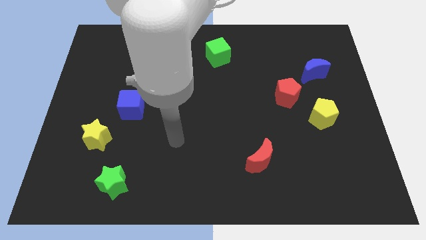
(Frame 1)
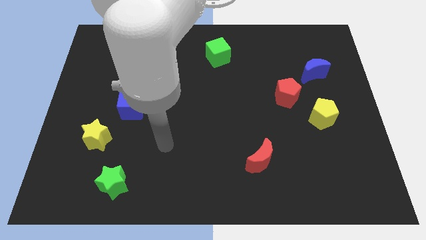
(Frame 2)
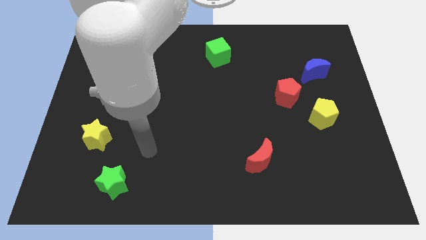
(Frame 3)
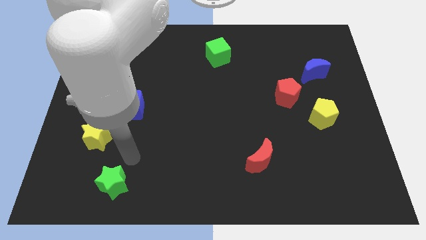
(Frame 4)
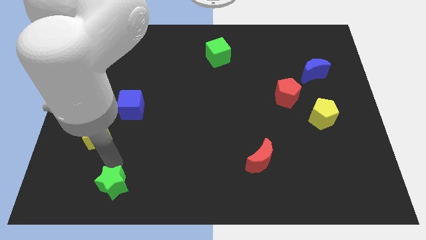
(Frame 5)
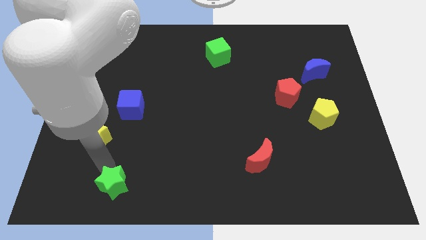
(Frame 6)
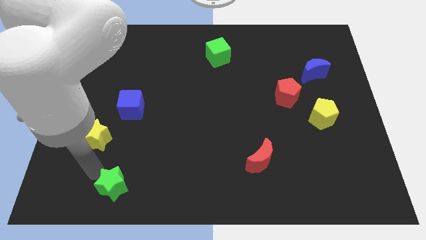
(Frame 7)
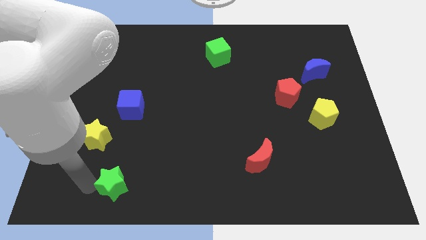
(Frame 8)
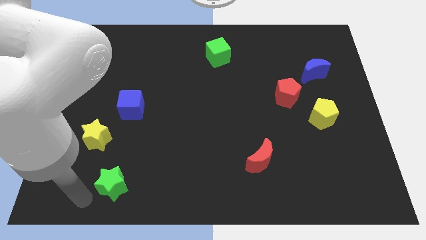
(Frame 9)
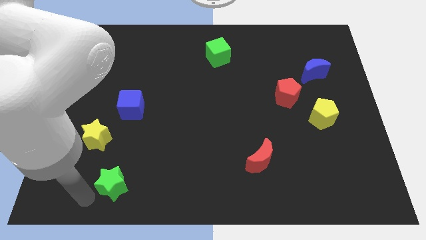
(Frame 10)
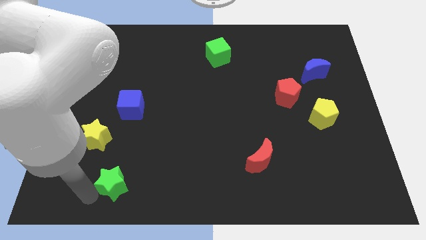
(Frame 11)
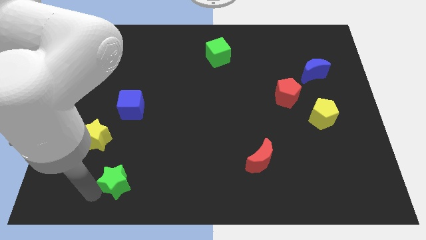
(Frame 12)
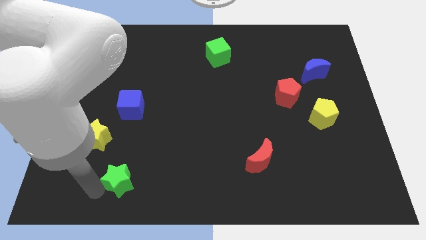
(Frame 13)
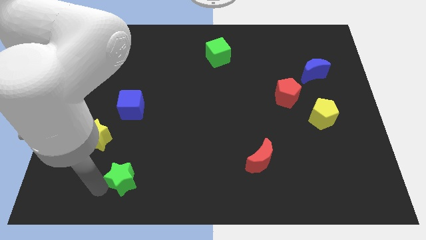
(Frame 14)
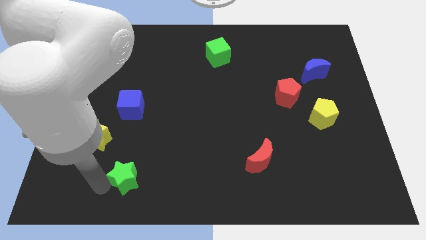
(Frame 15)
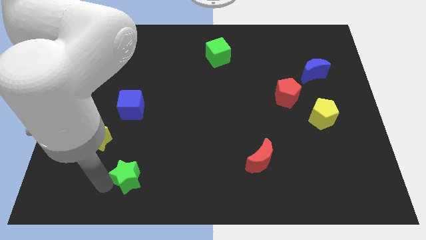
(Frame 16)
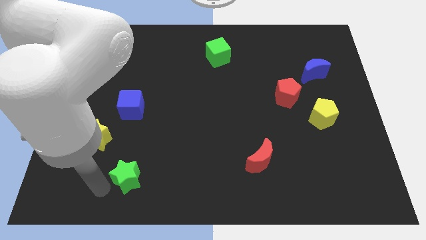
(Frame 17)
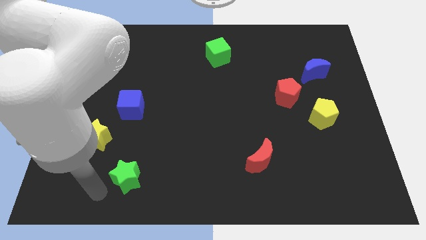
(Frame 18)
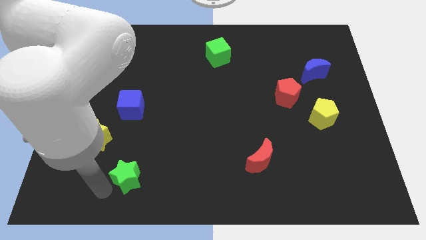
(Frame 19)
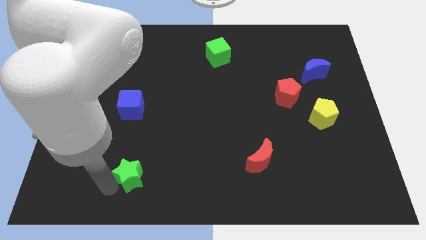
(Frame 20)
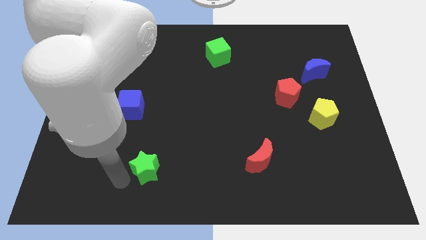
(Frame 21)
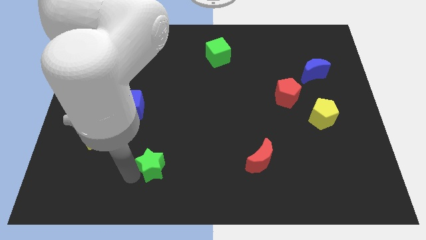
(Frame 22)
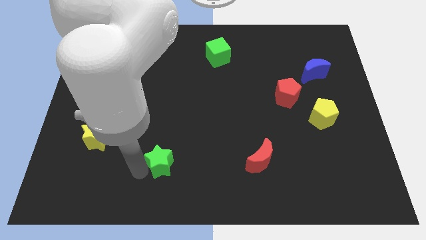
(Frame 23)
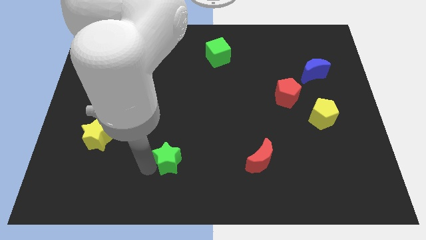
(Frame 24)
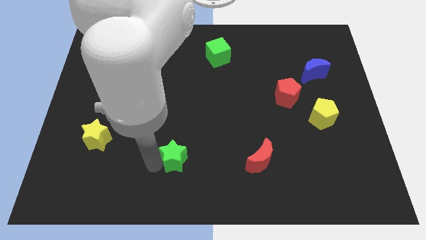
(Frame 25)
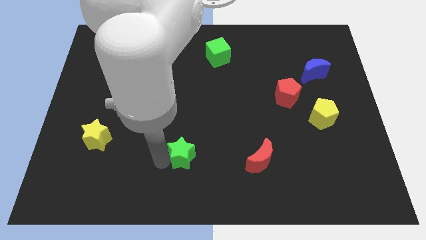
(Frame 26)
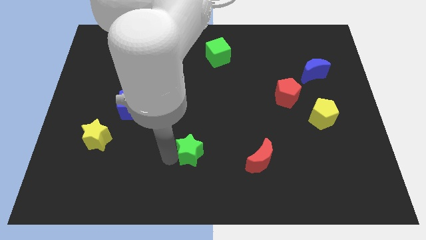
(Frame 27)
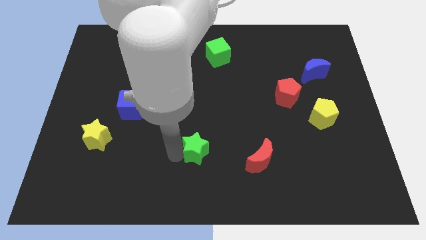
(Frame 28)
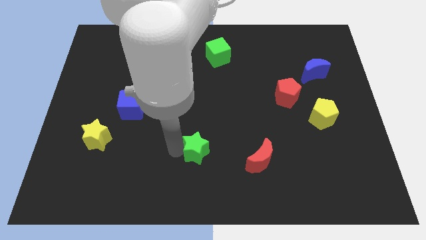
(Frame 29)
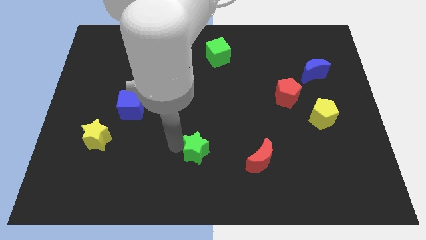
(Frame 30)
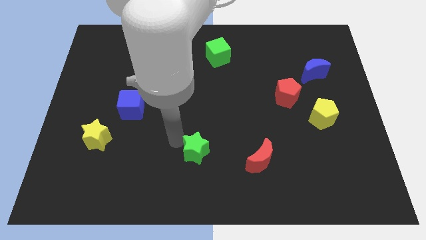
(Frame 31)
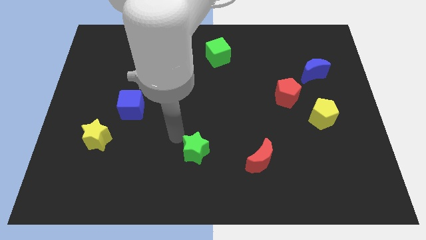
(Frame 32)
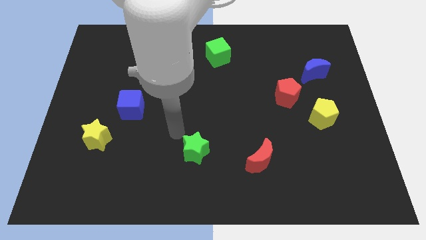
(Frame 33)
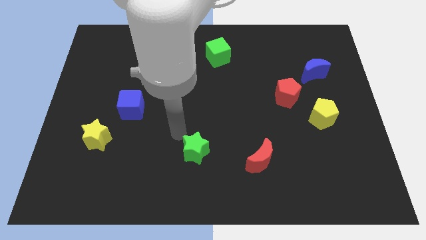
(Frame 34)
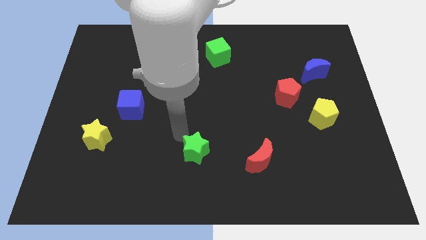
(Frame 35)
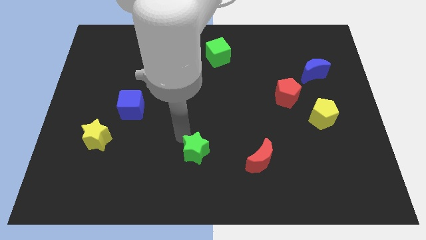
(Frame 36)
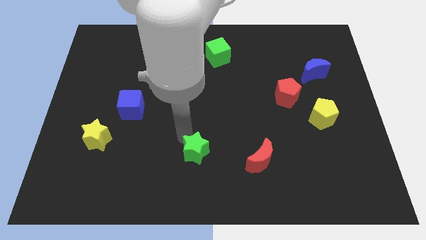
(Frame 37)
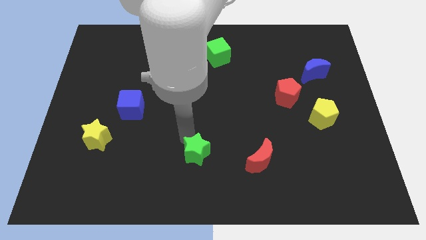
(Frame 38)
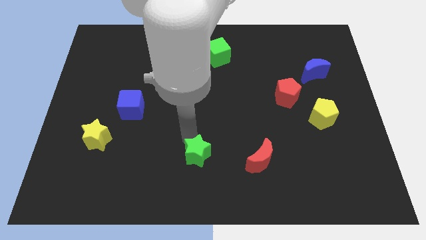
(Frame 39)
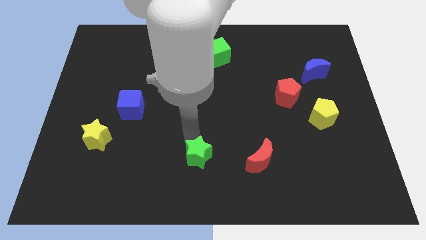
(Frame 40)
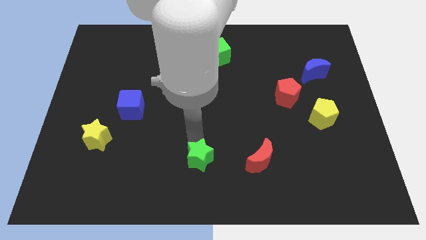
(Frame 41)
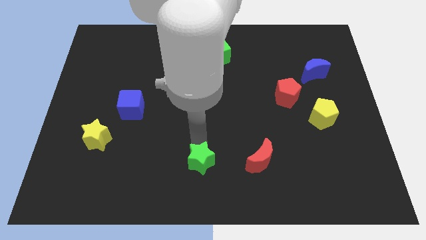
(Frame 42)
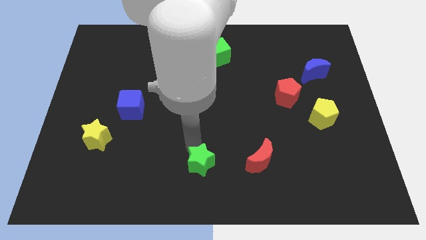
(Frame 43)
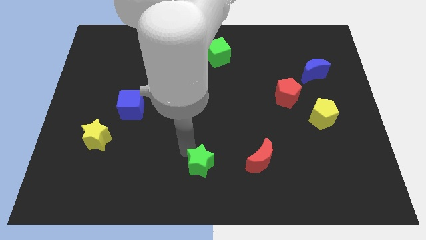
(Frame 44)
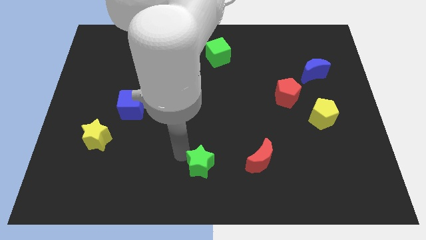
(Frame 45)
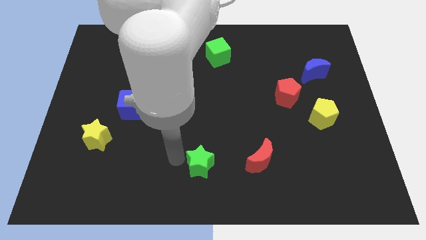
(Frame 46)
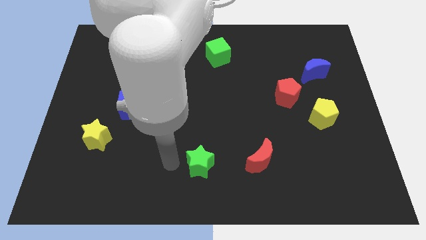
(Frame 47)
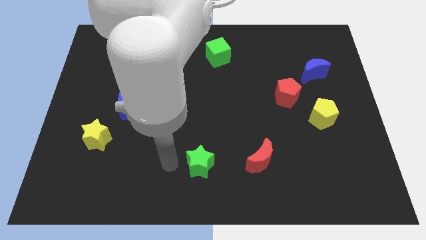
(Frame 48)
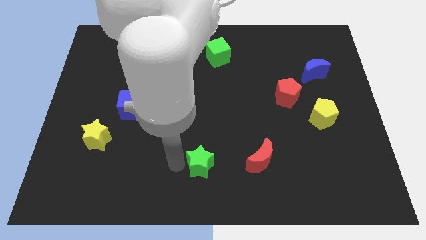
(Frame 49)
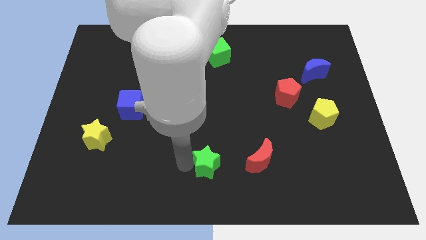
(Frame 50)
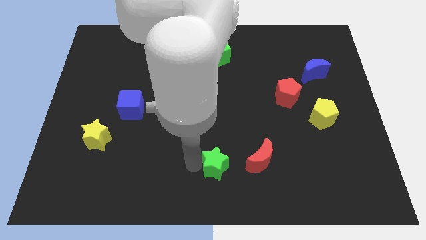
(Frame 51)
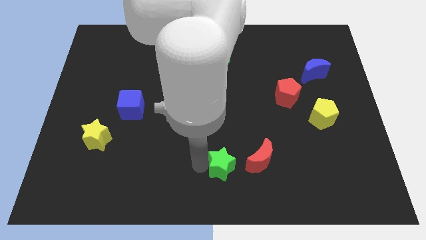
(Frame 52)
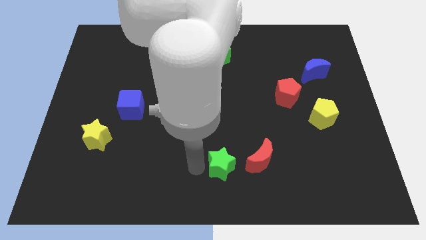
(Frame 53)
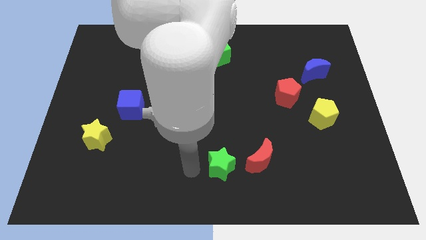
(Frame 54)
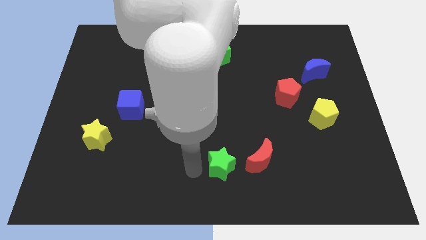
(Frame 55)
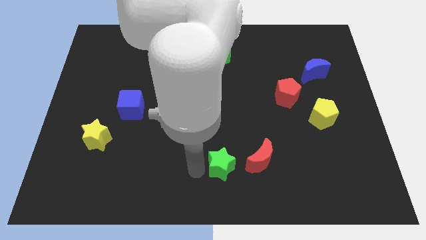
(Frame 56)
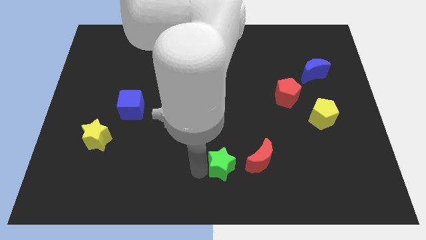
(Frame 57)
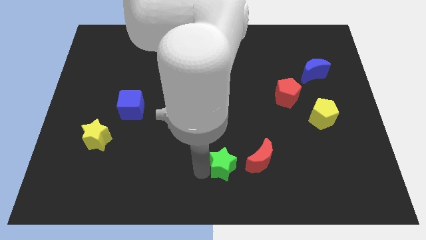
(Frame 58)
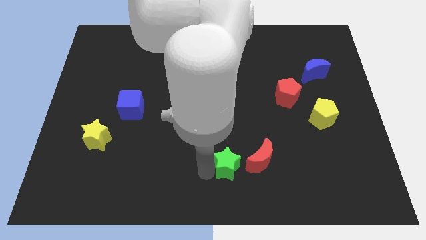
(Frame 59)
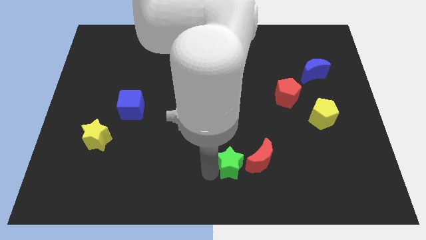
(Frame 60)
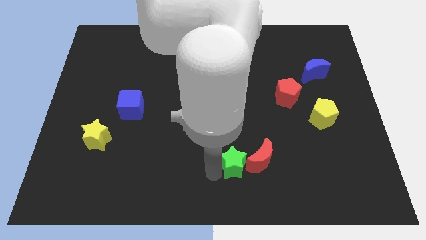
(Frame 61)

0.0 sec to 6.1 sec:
push the green star to the red moon
